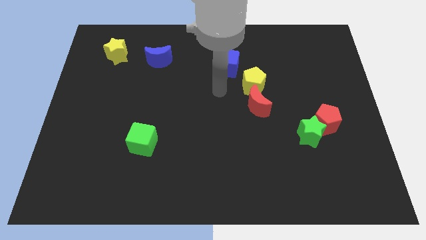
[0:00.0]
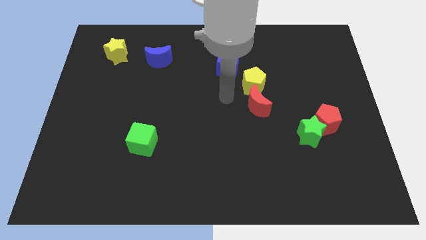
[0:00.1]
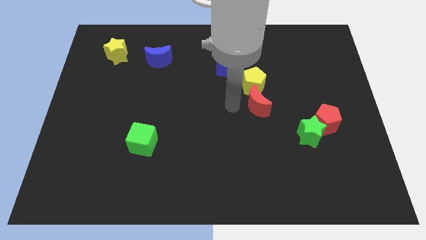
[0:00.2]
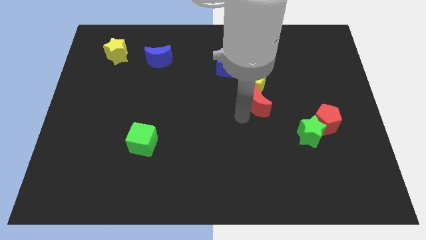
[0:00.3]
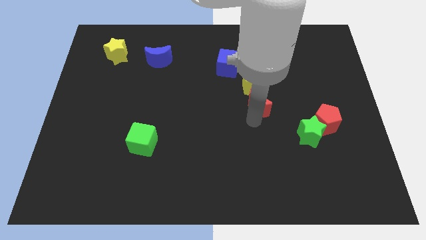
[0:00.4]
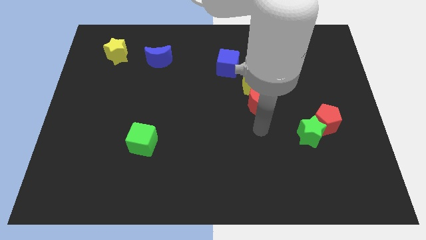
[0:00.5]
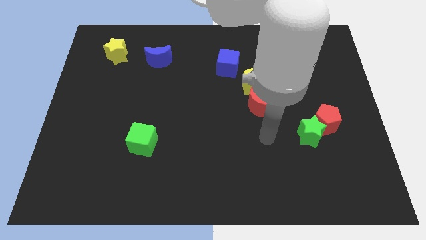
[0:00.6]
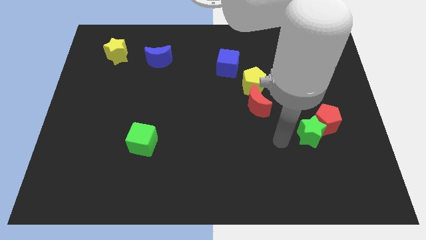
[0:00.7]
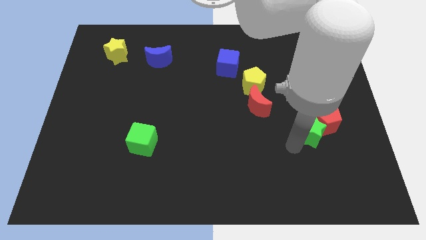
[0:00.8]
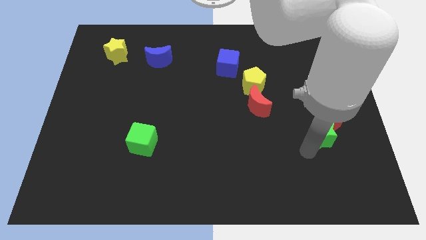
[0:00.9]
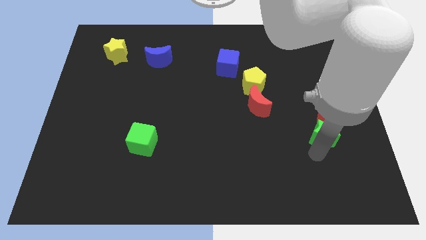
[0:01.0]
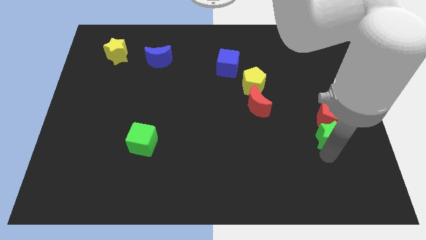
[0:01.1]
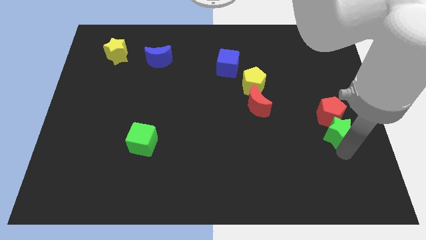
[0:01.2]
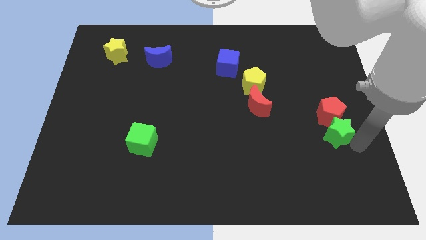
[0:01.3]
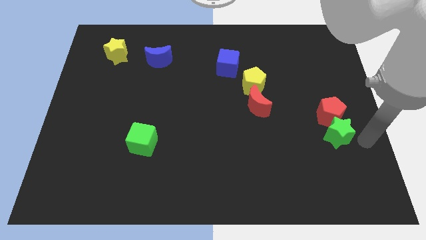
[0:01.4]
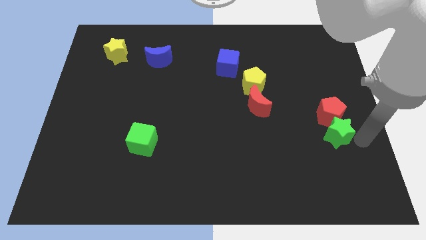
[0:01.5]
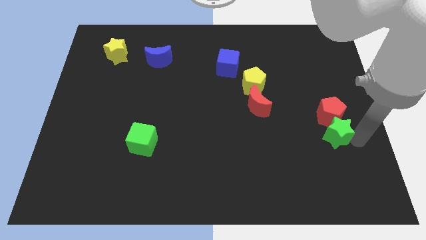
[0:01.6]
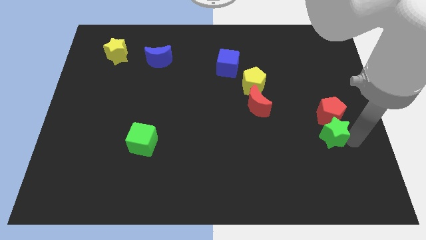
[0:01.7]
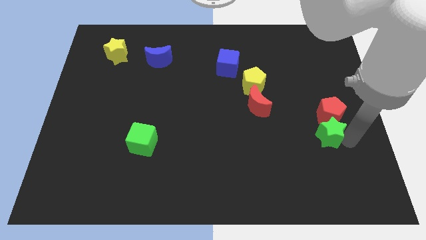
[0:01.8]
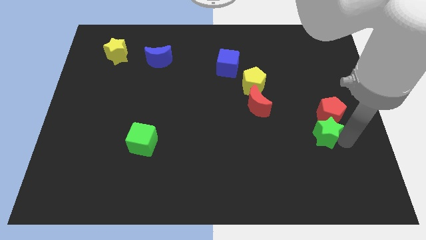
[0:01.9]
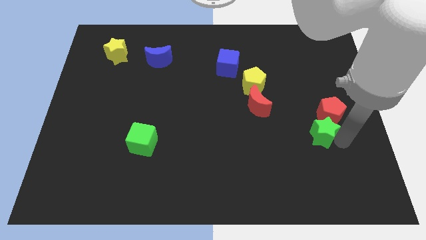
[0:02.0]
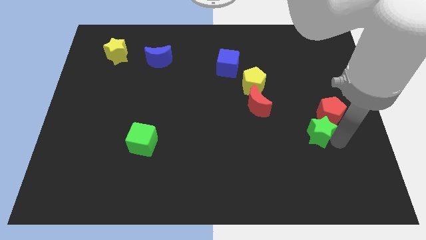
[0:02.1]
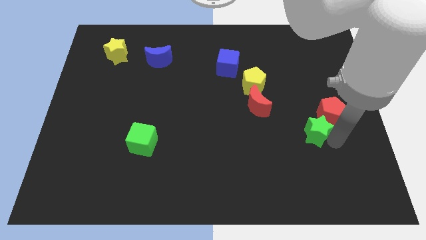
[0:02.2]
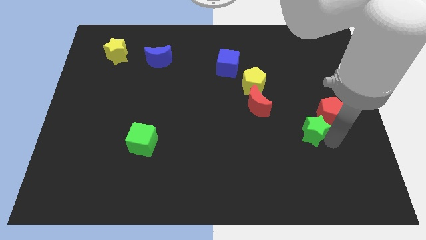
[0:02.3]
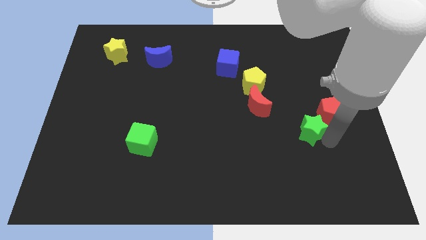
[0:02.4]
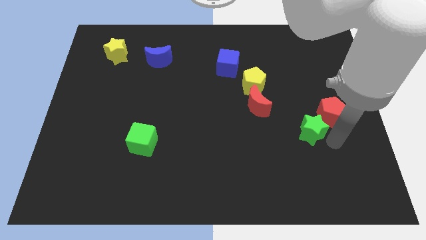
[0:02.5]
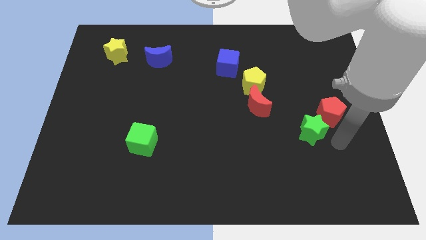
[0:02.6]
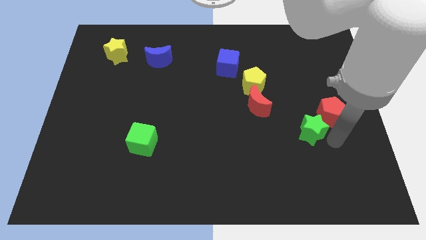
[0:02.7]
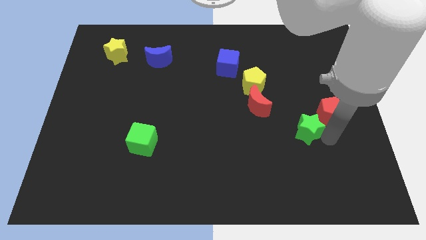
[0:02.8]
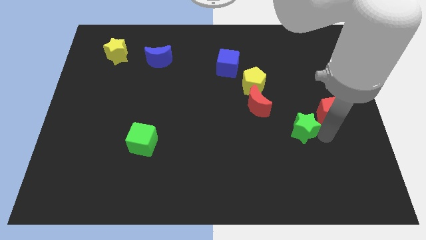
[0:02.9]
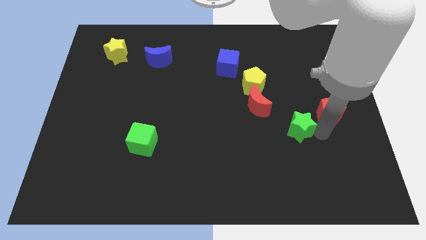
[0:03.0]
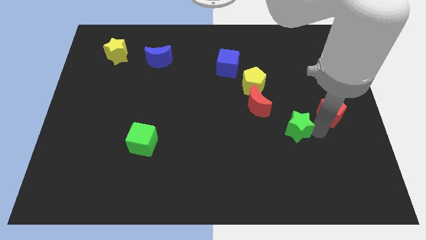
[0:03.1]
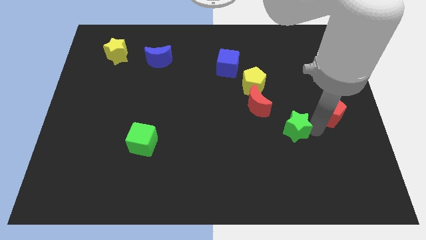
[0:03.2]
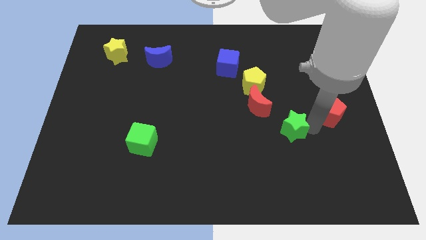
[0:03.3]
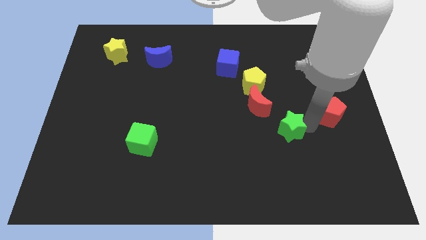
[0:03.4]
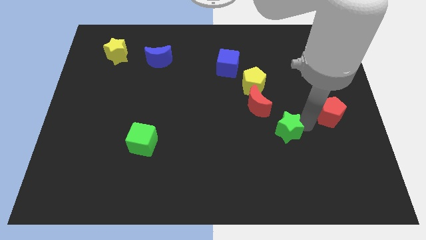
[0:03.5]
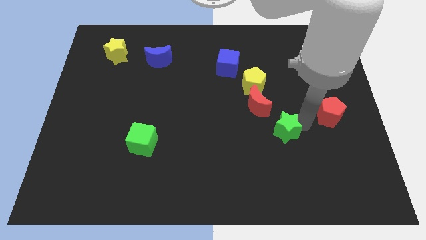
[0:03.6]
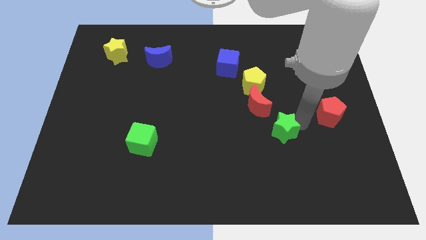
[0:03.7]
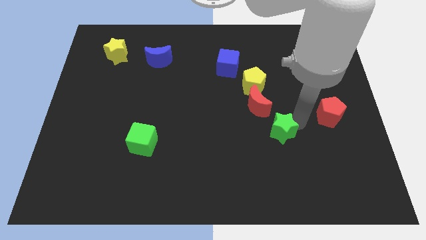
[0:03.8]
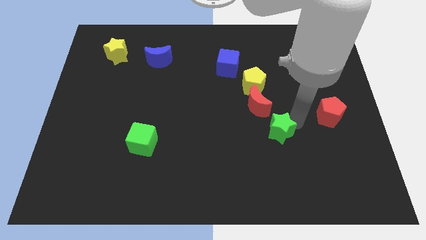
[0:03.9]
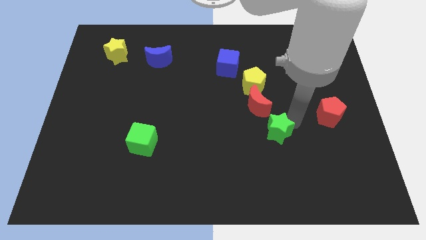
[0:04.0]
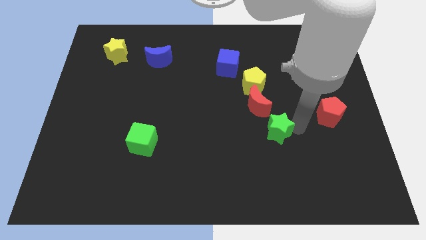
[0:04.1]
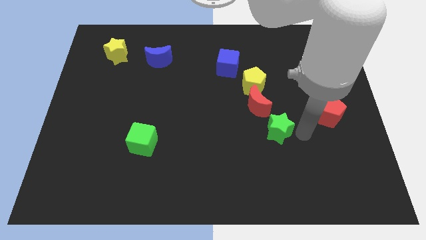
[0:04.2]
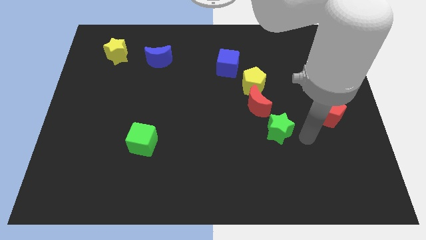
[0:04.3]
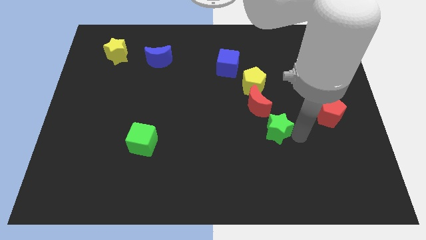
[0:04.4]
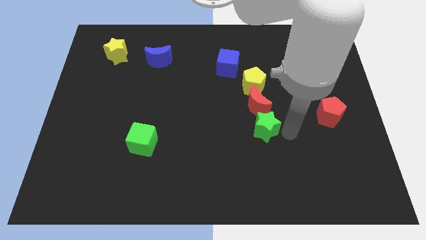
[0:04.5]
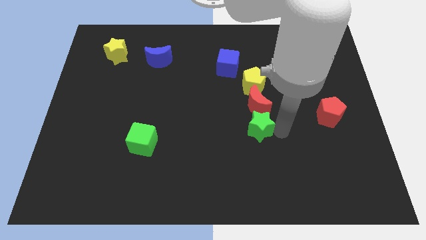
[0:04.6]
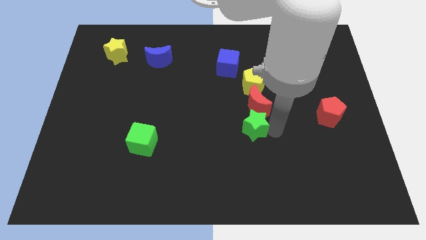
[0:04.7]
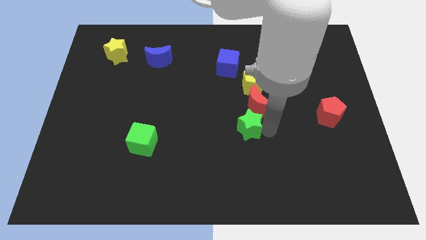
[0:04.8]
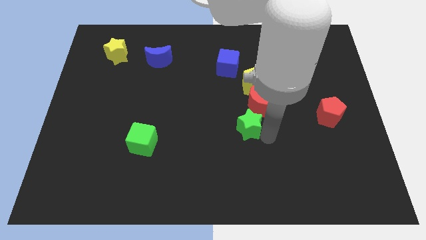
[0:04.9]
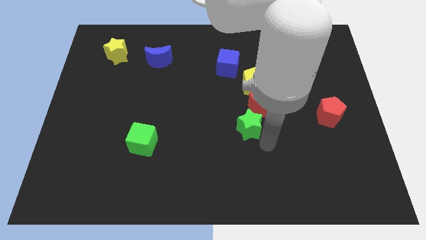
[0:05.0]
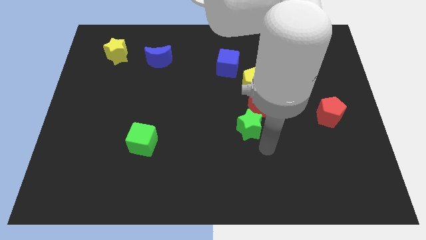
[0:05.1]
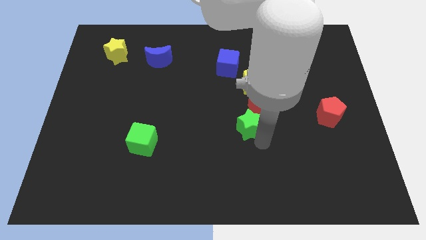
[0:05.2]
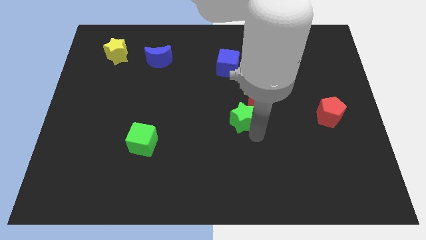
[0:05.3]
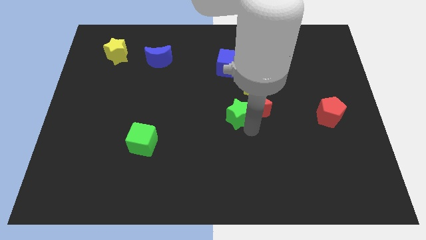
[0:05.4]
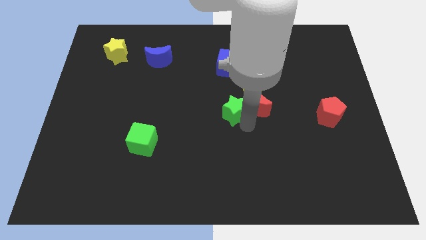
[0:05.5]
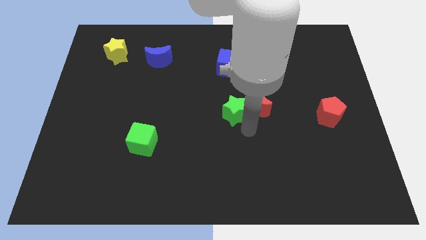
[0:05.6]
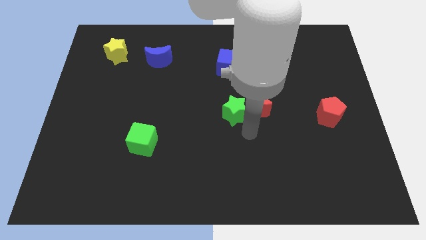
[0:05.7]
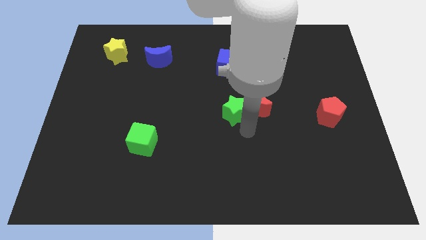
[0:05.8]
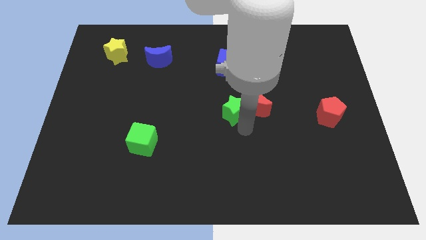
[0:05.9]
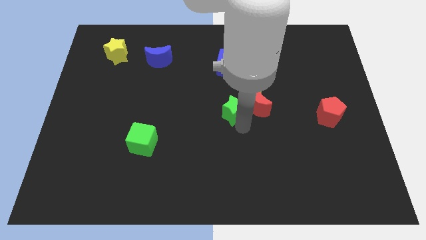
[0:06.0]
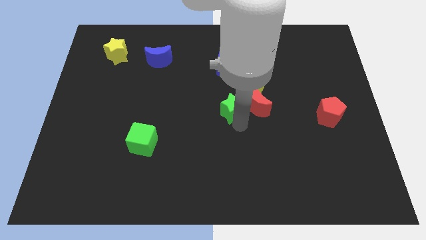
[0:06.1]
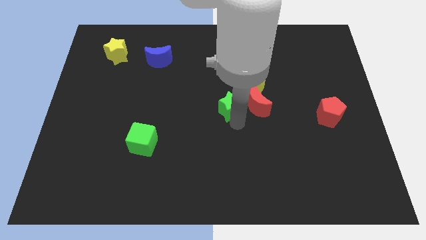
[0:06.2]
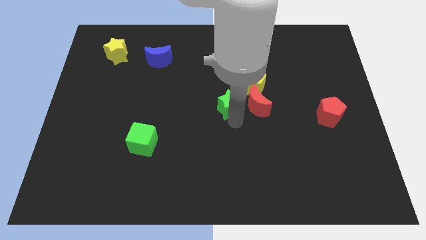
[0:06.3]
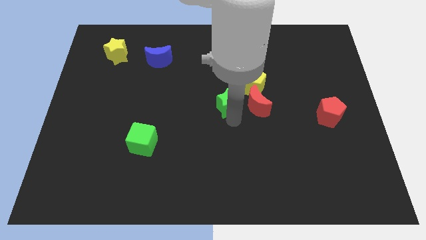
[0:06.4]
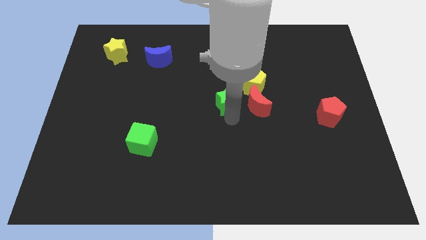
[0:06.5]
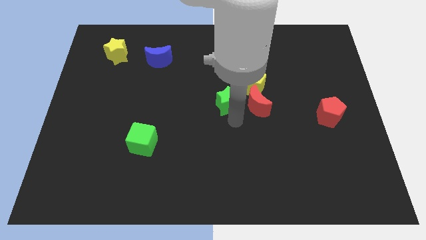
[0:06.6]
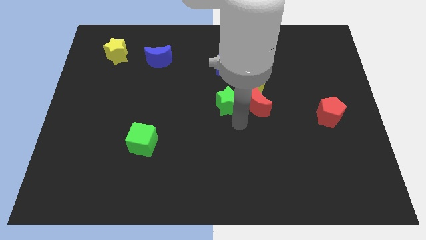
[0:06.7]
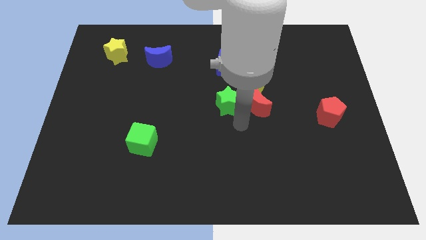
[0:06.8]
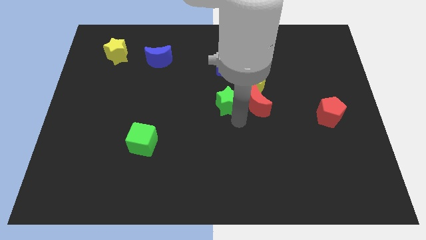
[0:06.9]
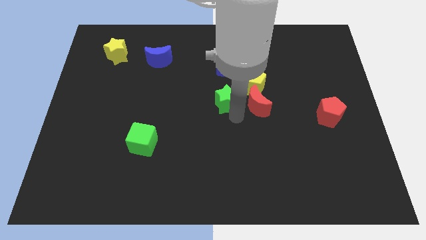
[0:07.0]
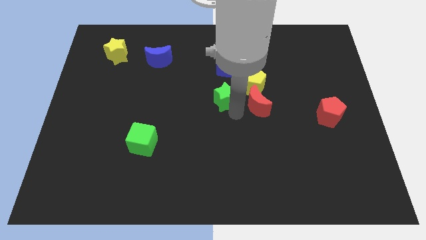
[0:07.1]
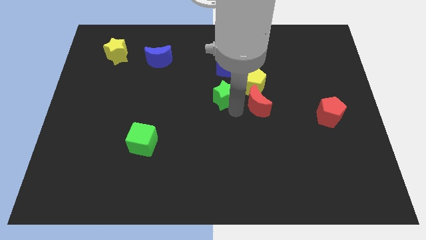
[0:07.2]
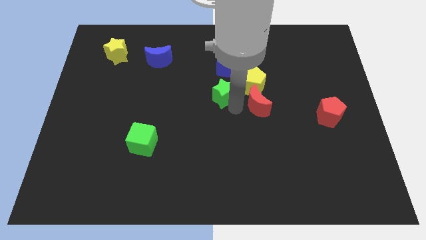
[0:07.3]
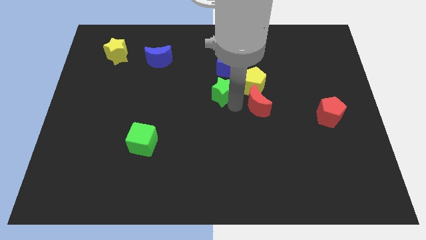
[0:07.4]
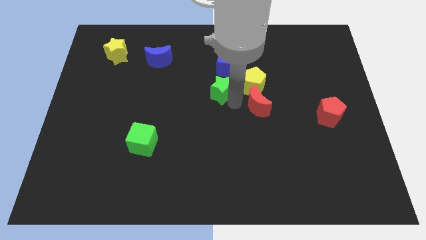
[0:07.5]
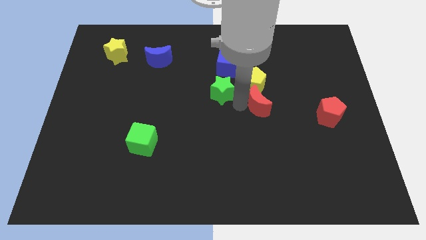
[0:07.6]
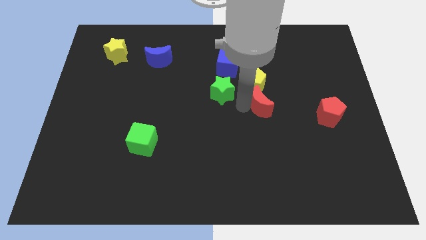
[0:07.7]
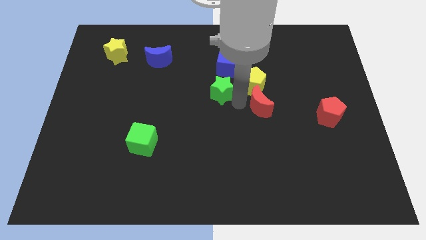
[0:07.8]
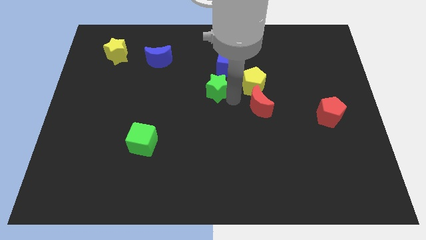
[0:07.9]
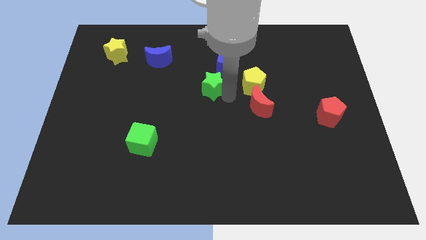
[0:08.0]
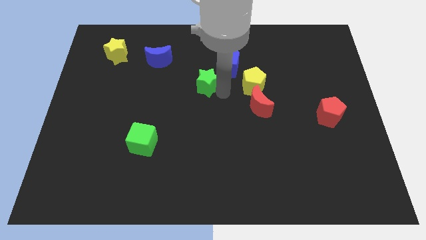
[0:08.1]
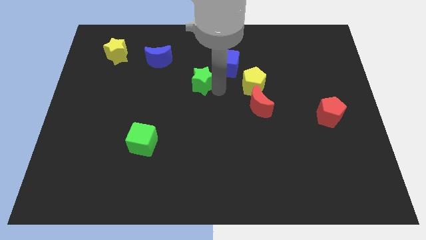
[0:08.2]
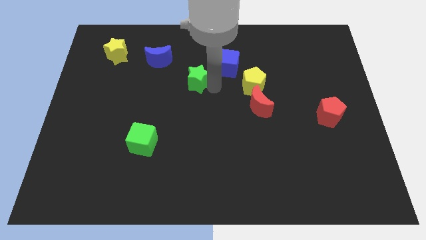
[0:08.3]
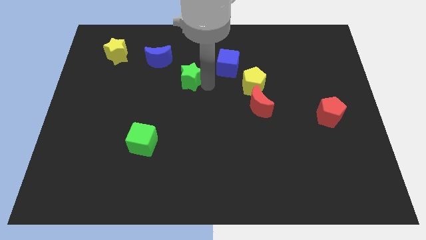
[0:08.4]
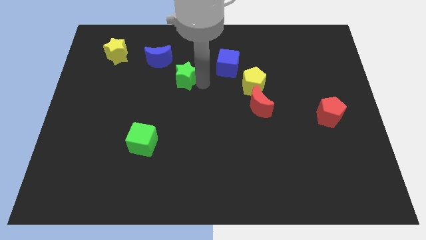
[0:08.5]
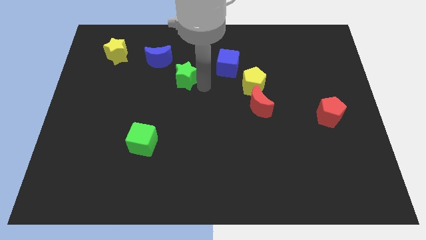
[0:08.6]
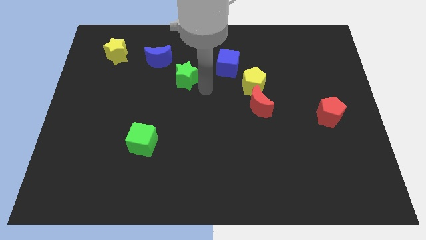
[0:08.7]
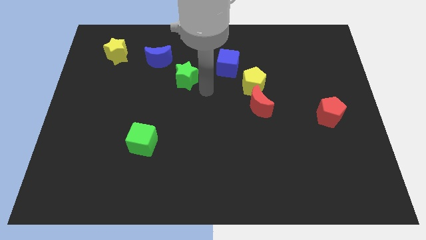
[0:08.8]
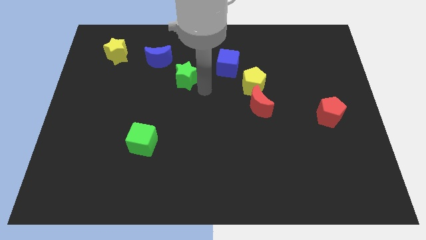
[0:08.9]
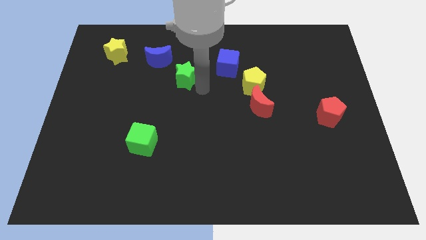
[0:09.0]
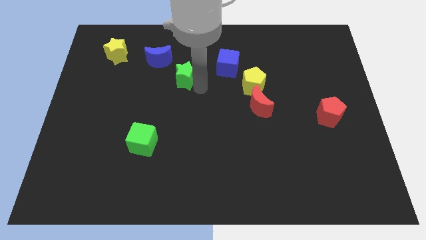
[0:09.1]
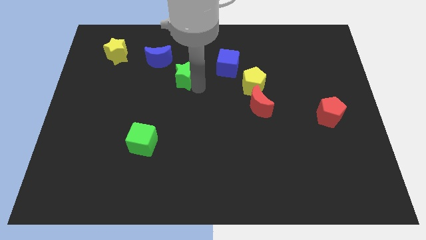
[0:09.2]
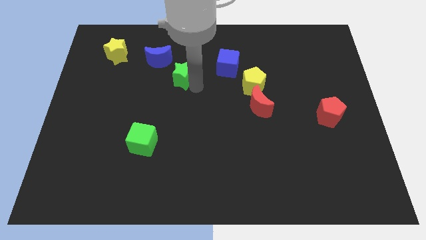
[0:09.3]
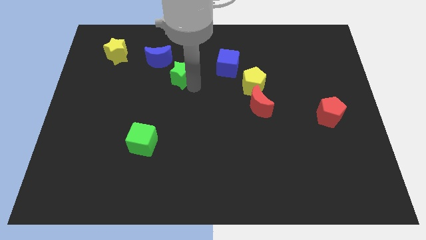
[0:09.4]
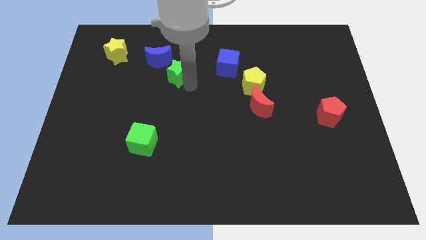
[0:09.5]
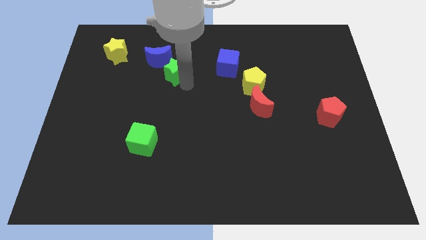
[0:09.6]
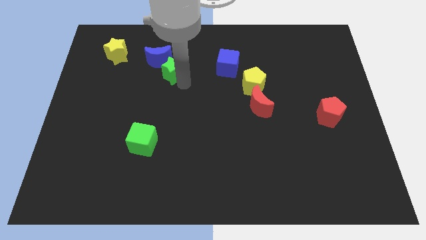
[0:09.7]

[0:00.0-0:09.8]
slide the green star close to the blue moon
